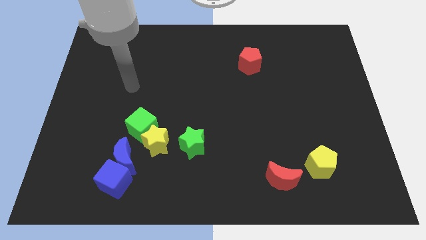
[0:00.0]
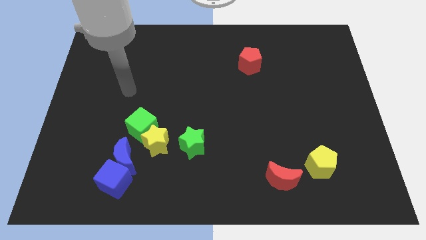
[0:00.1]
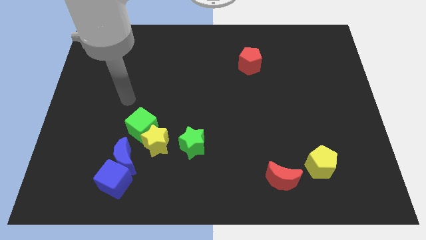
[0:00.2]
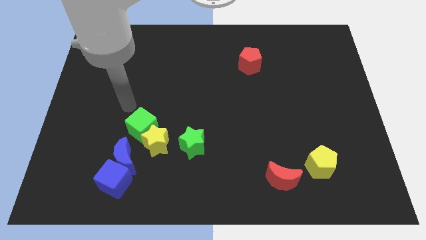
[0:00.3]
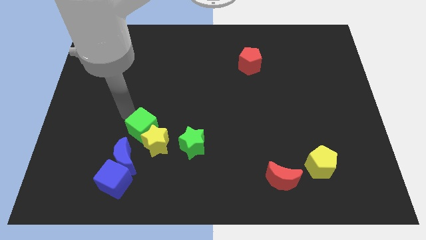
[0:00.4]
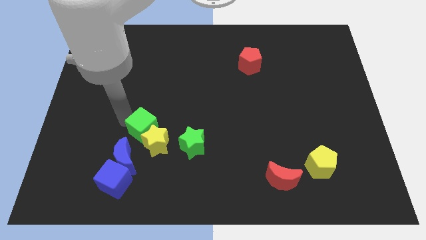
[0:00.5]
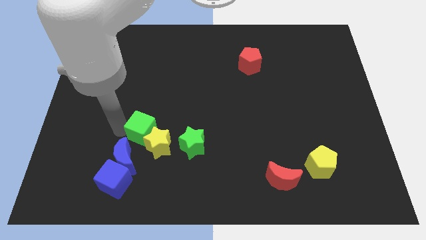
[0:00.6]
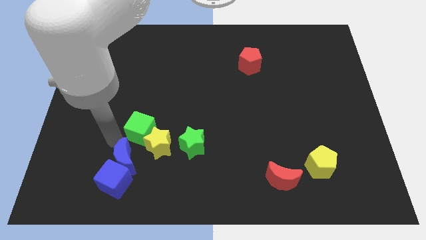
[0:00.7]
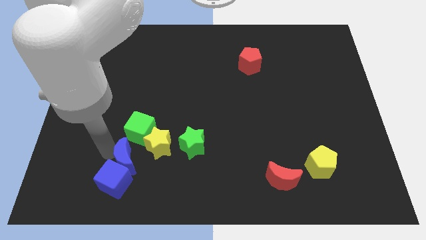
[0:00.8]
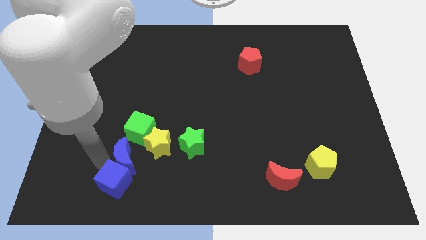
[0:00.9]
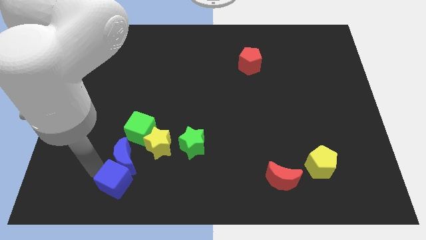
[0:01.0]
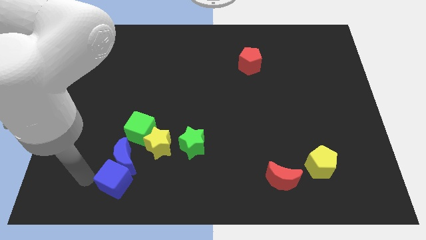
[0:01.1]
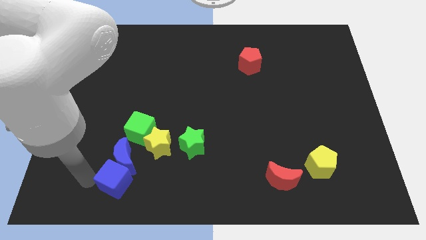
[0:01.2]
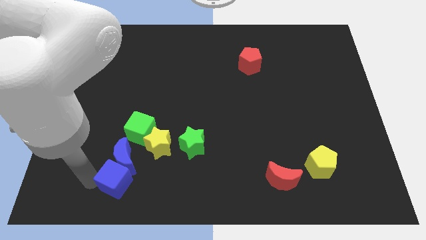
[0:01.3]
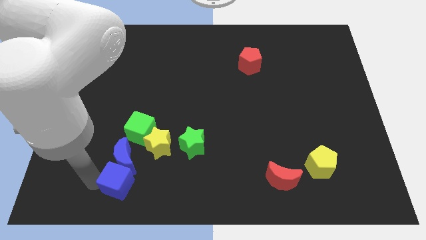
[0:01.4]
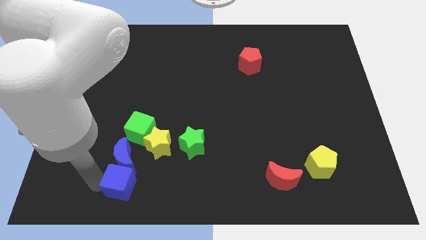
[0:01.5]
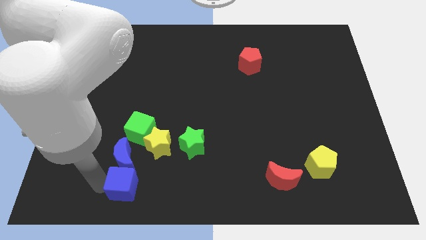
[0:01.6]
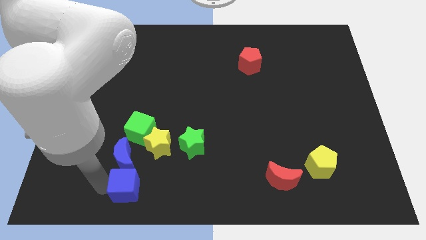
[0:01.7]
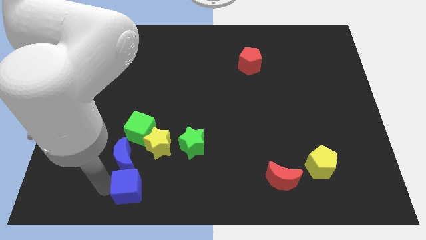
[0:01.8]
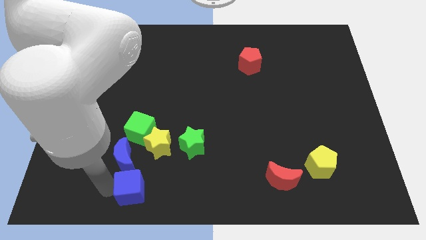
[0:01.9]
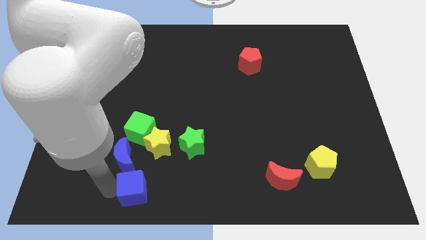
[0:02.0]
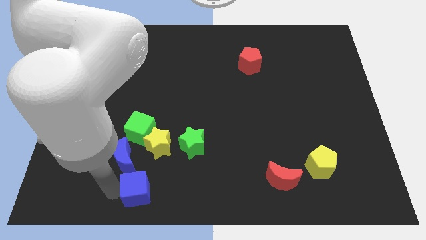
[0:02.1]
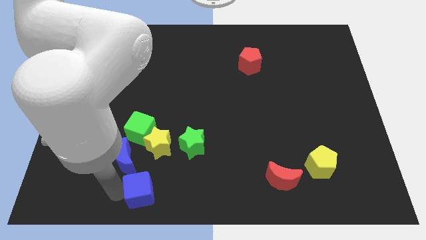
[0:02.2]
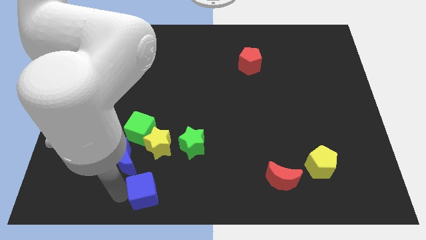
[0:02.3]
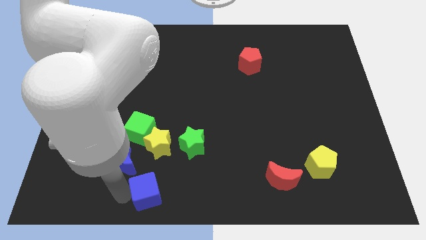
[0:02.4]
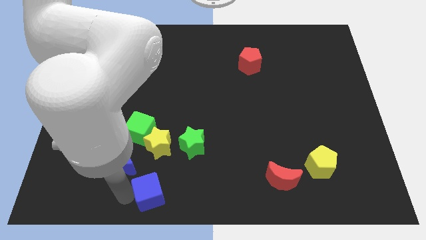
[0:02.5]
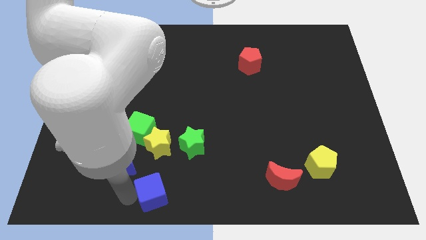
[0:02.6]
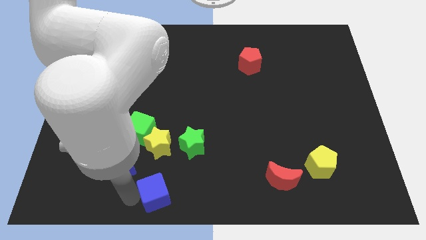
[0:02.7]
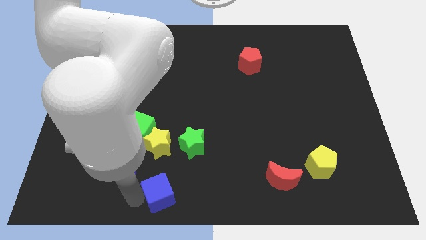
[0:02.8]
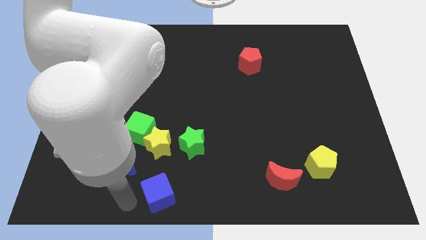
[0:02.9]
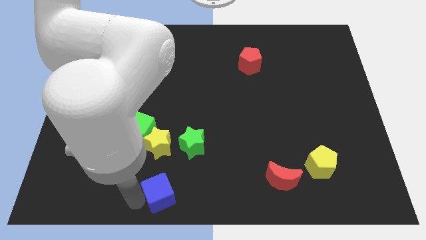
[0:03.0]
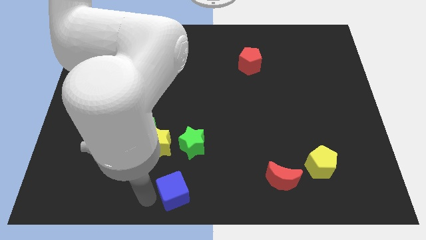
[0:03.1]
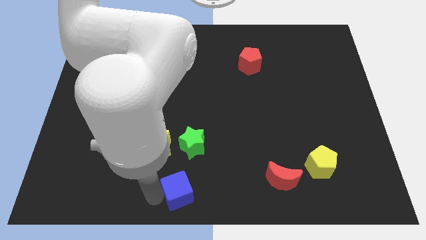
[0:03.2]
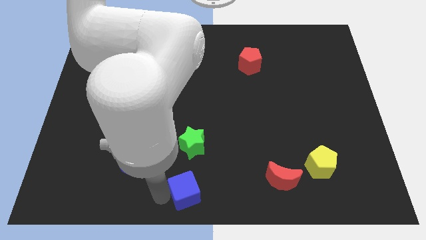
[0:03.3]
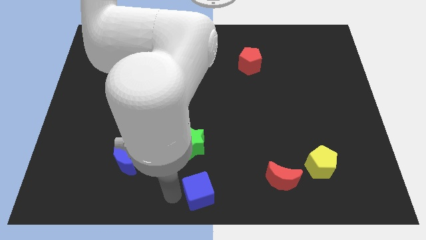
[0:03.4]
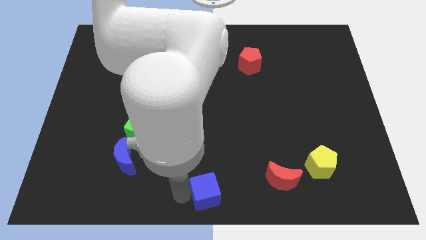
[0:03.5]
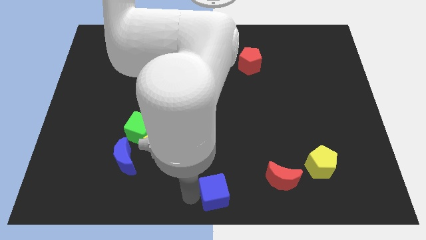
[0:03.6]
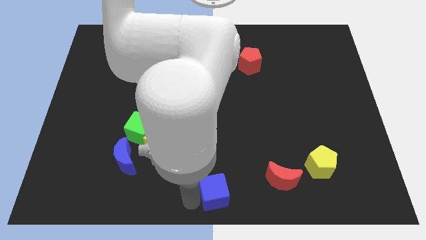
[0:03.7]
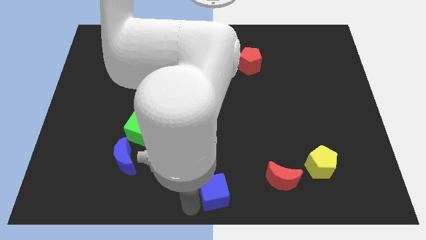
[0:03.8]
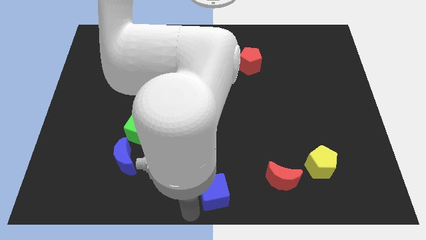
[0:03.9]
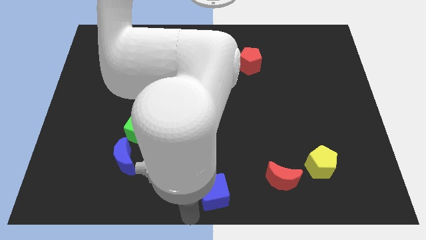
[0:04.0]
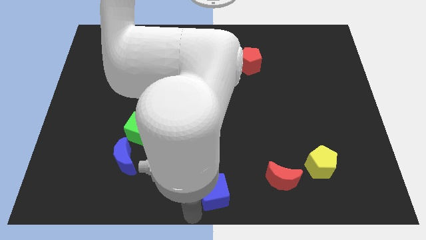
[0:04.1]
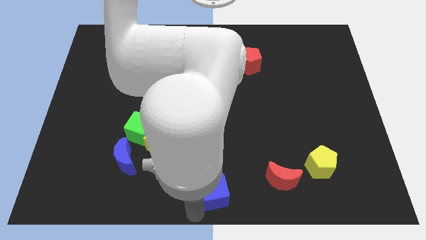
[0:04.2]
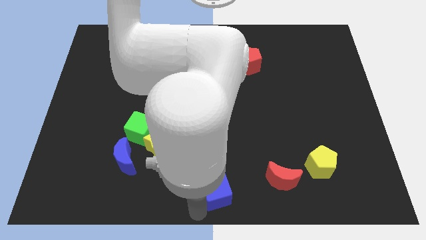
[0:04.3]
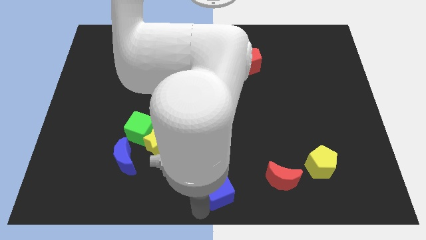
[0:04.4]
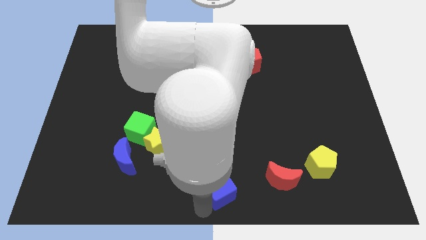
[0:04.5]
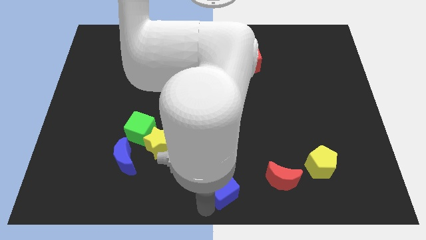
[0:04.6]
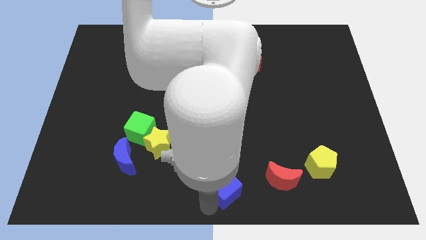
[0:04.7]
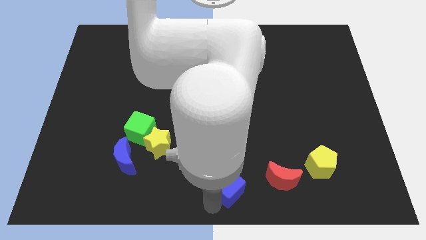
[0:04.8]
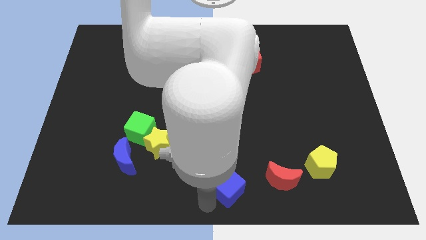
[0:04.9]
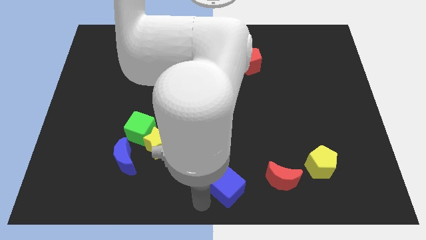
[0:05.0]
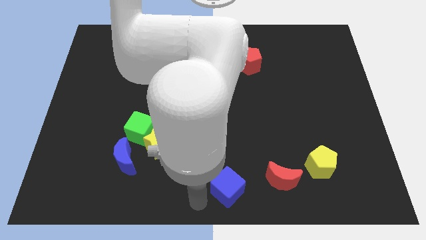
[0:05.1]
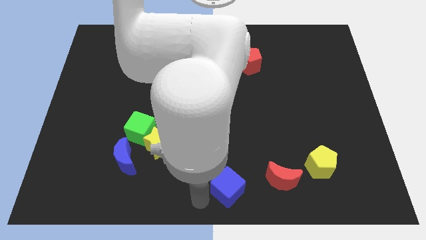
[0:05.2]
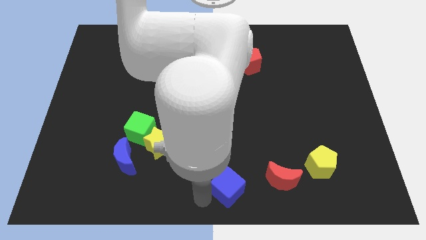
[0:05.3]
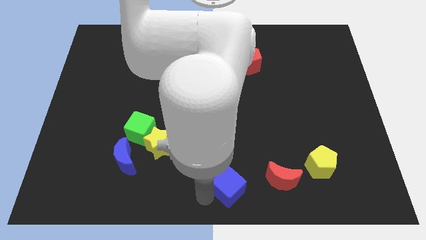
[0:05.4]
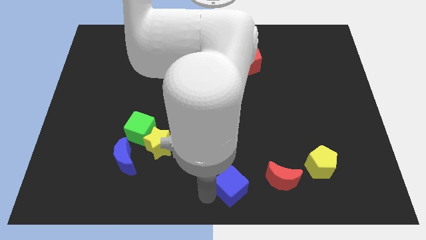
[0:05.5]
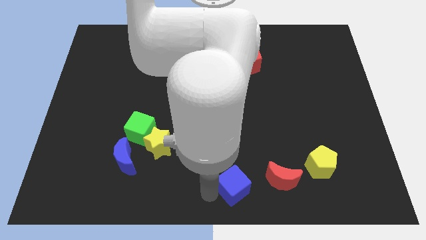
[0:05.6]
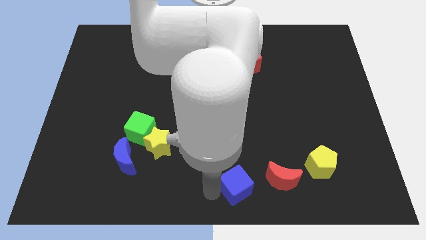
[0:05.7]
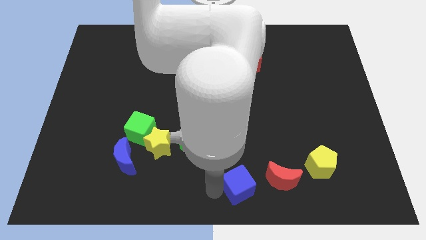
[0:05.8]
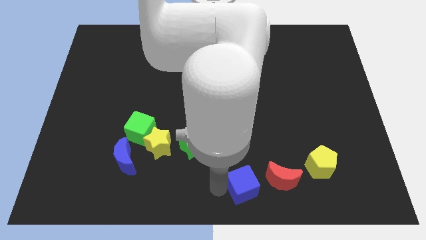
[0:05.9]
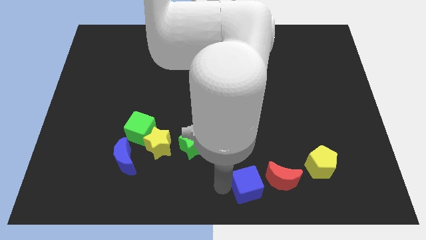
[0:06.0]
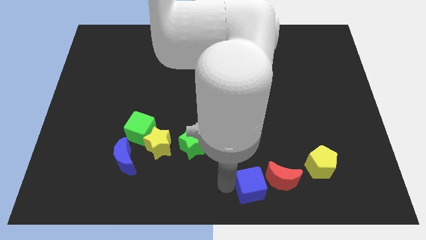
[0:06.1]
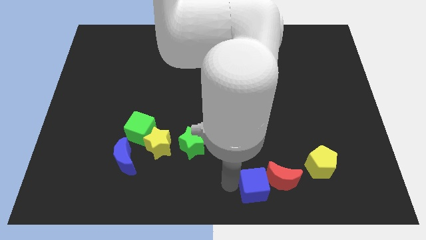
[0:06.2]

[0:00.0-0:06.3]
push the blue cube next to the red moon

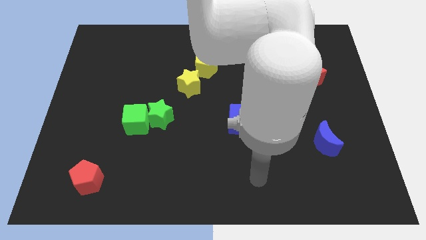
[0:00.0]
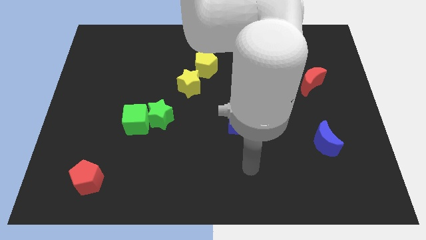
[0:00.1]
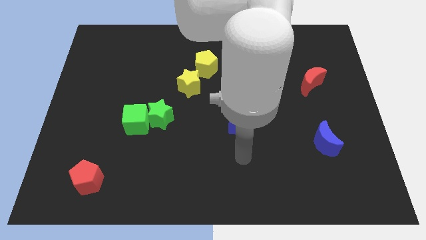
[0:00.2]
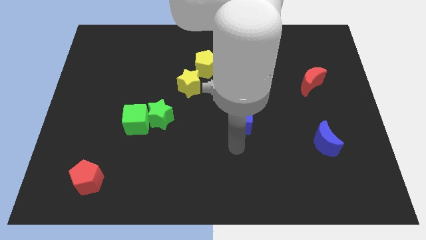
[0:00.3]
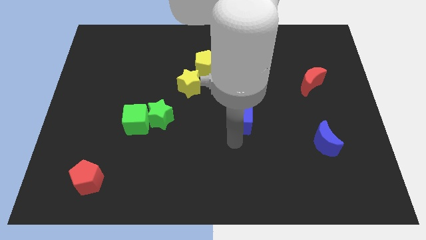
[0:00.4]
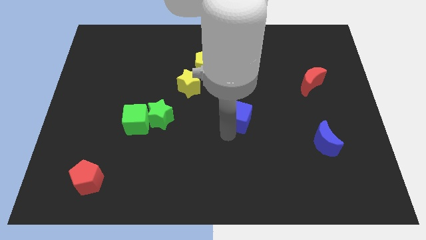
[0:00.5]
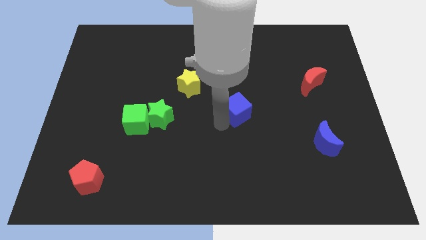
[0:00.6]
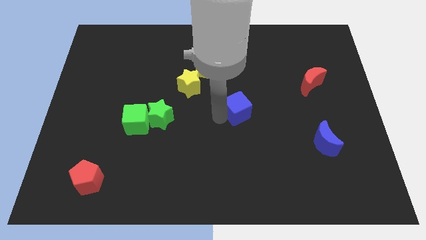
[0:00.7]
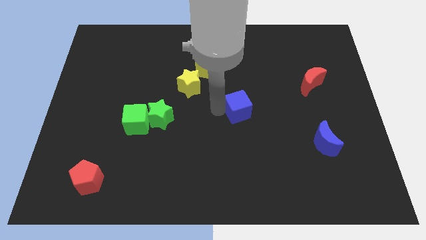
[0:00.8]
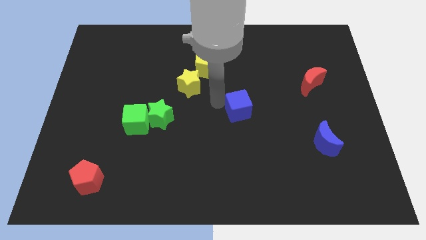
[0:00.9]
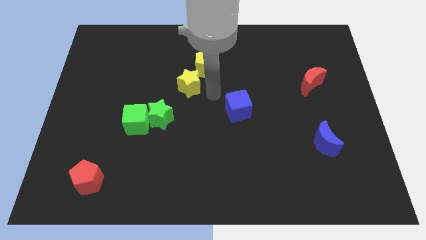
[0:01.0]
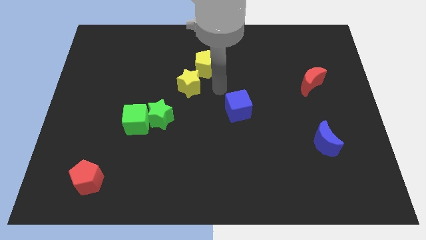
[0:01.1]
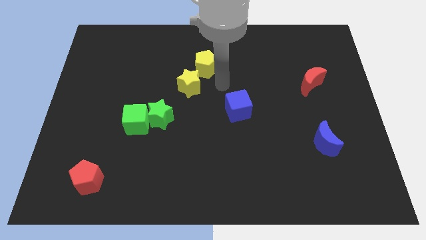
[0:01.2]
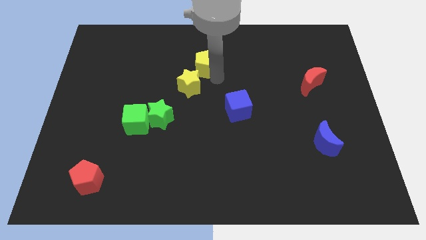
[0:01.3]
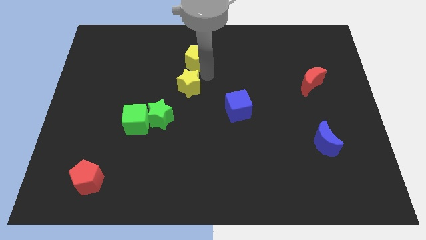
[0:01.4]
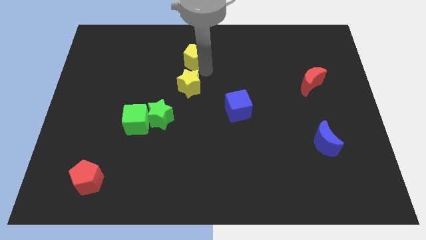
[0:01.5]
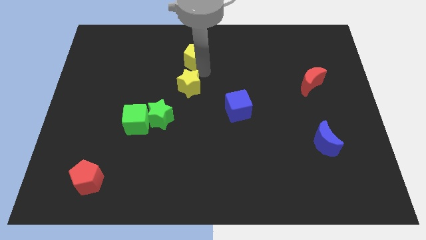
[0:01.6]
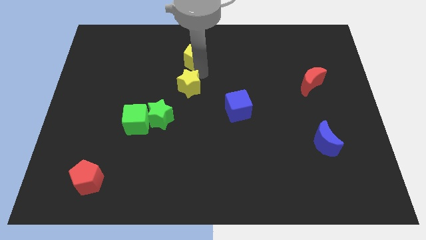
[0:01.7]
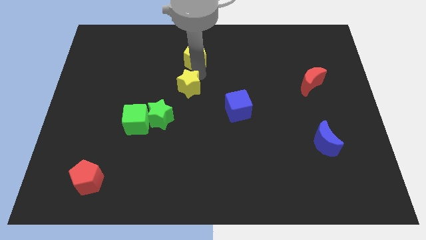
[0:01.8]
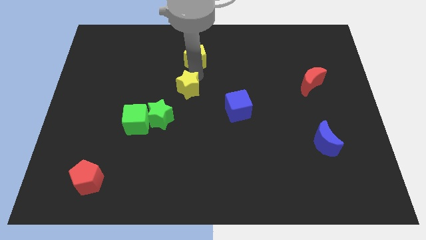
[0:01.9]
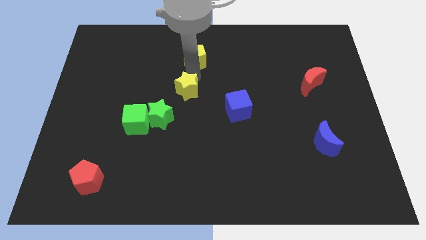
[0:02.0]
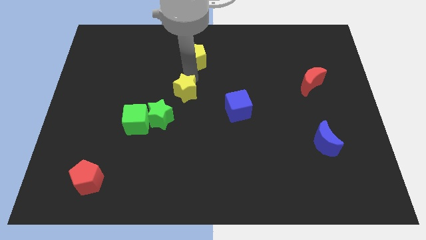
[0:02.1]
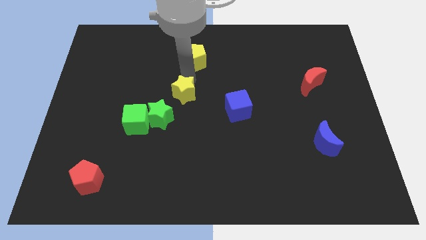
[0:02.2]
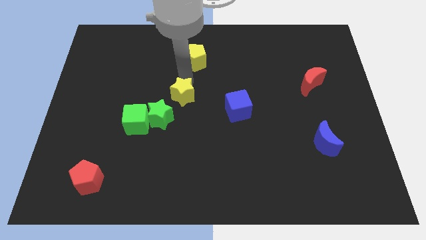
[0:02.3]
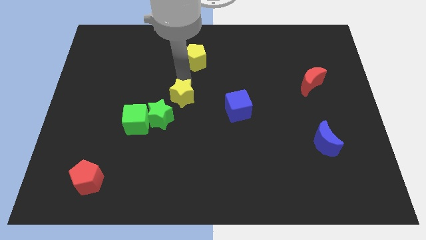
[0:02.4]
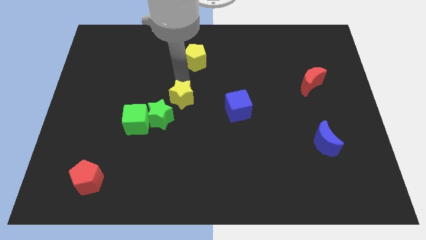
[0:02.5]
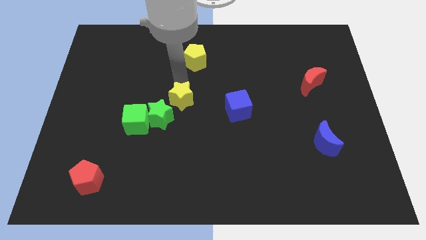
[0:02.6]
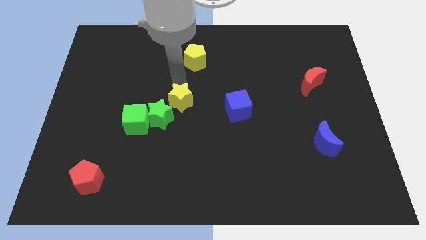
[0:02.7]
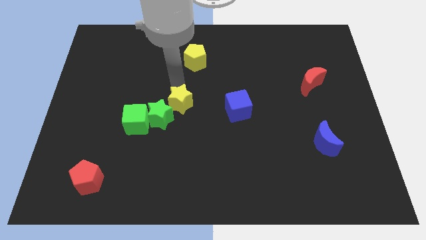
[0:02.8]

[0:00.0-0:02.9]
put the yellow star next to the green star
